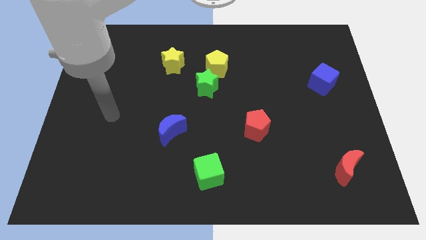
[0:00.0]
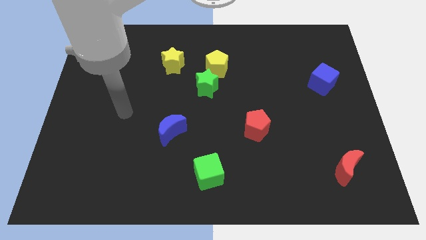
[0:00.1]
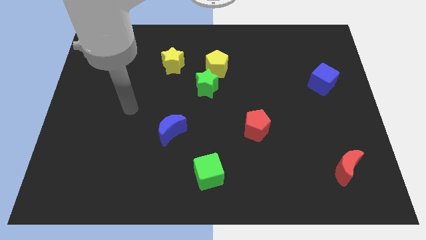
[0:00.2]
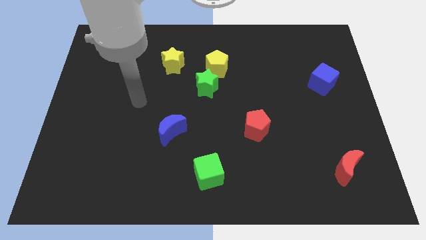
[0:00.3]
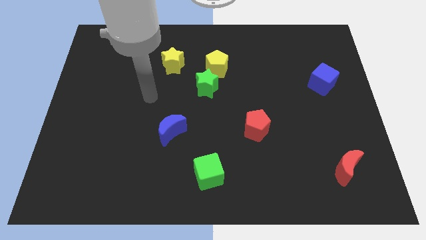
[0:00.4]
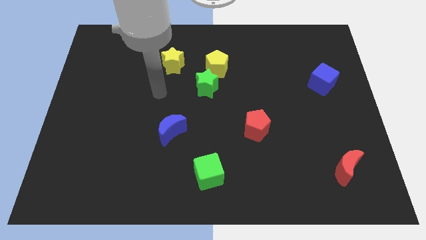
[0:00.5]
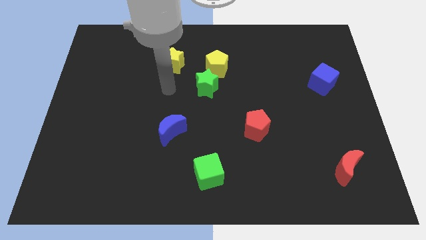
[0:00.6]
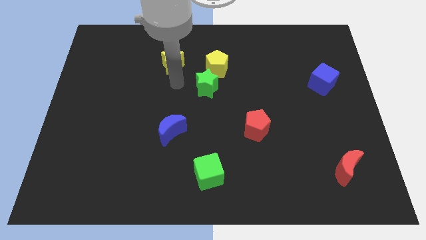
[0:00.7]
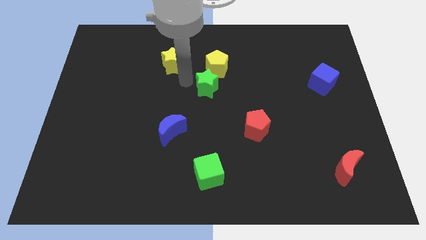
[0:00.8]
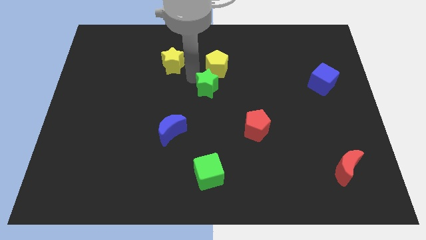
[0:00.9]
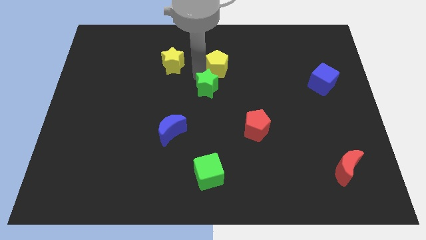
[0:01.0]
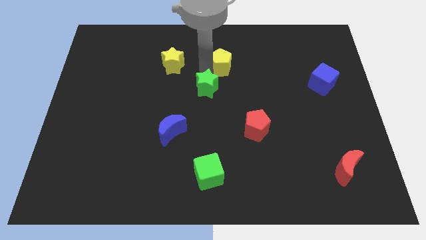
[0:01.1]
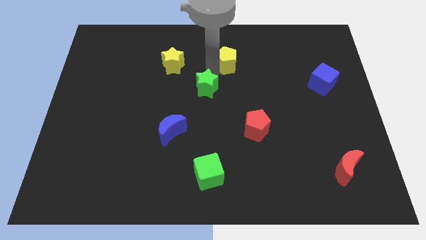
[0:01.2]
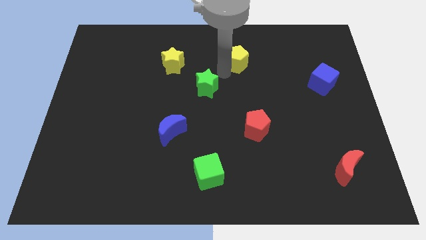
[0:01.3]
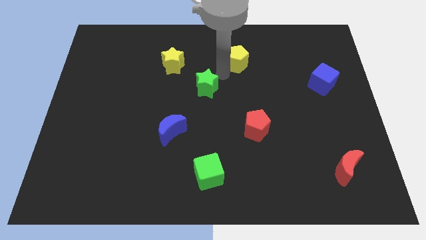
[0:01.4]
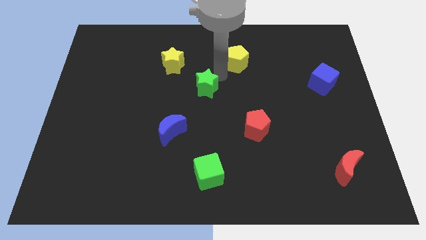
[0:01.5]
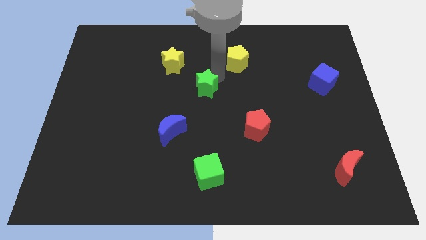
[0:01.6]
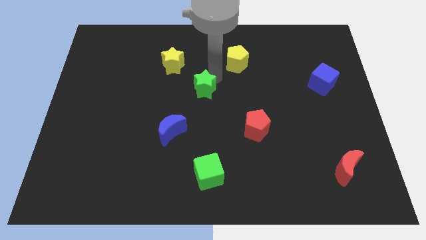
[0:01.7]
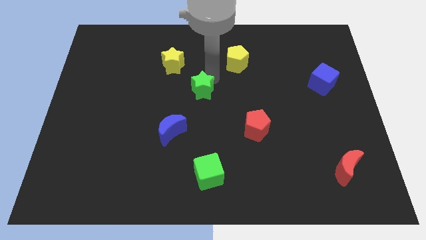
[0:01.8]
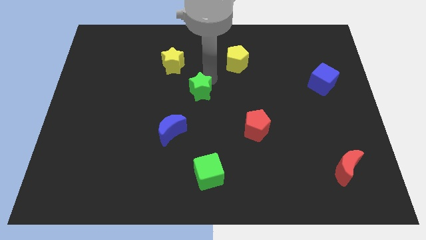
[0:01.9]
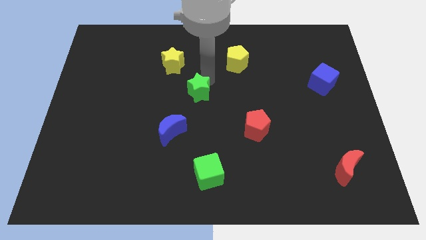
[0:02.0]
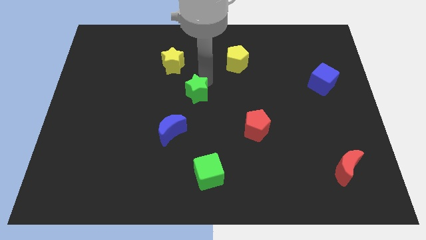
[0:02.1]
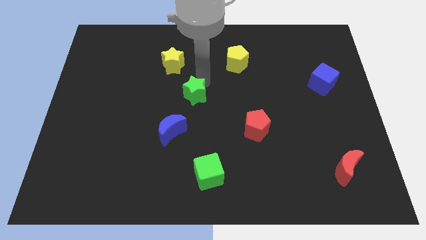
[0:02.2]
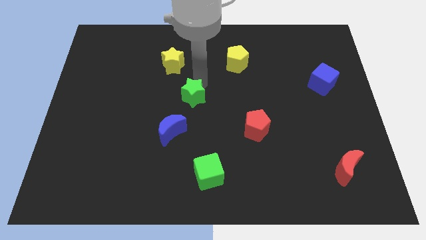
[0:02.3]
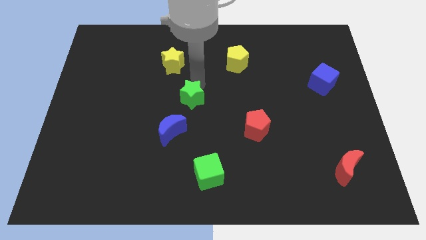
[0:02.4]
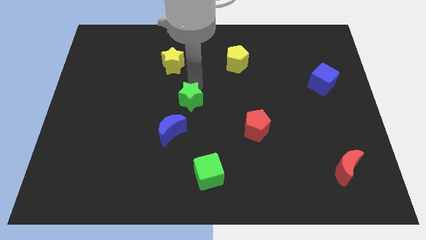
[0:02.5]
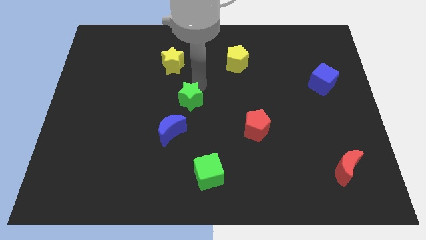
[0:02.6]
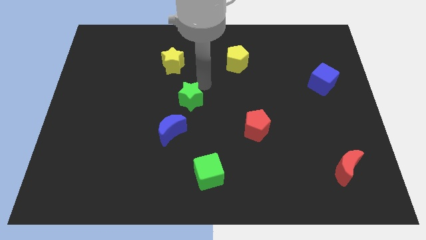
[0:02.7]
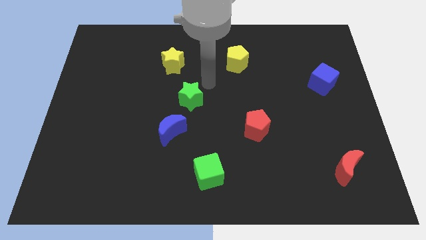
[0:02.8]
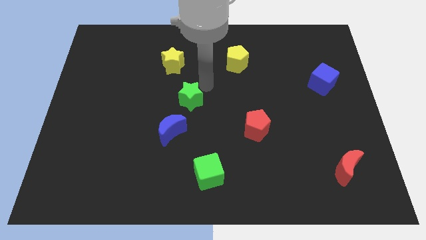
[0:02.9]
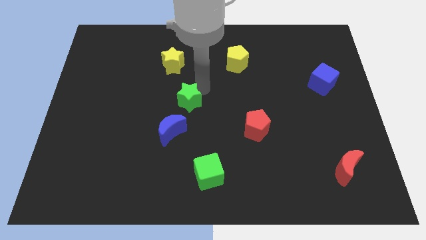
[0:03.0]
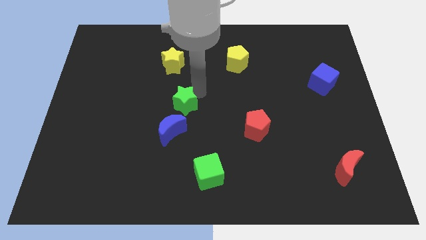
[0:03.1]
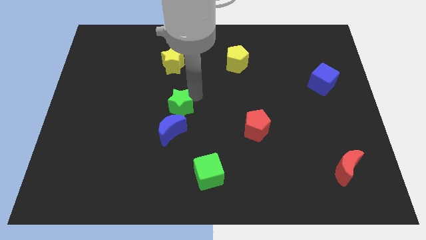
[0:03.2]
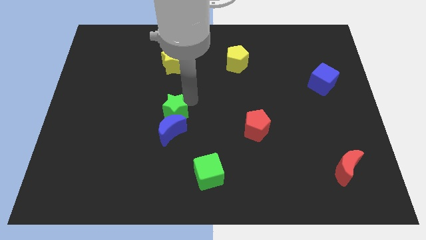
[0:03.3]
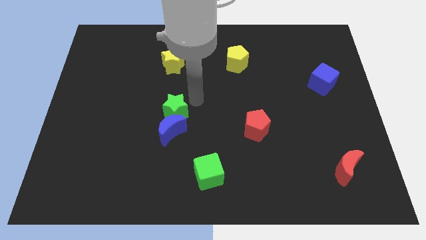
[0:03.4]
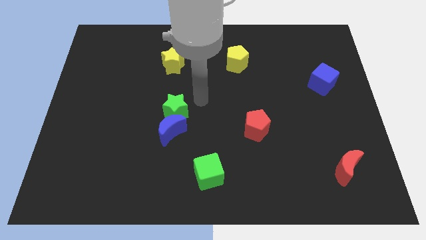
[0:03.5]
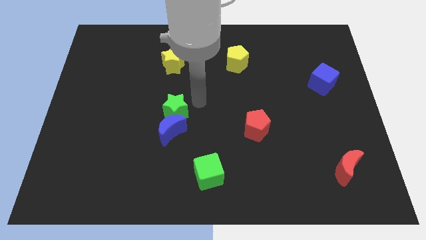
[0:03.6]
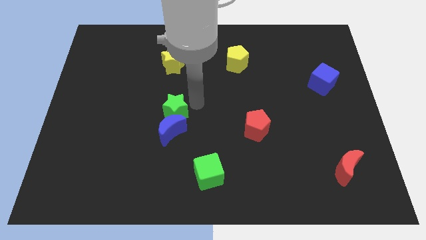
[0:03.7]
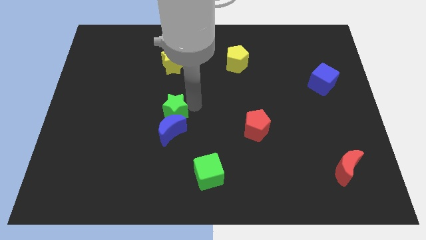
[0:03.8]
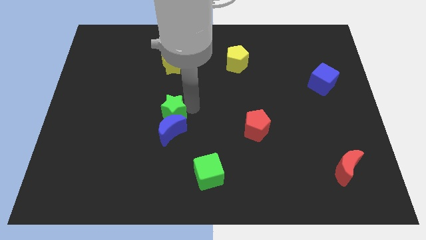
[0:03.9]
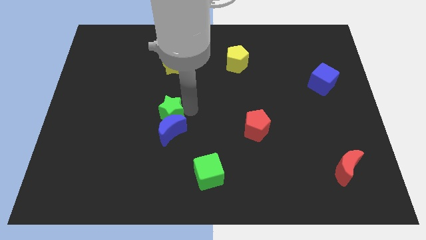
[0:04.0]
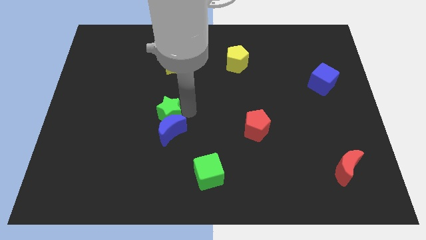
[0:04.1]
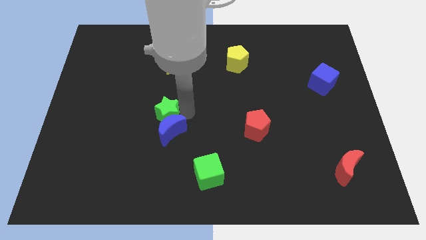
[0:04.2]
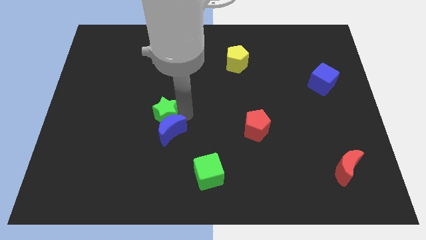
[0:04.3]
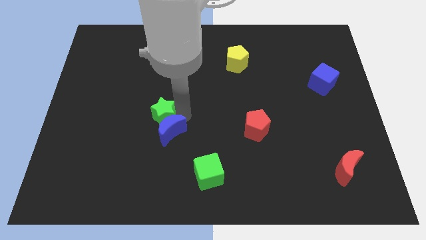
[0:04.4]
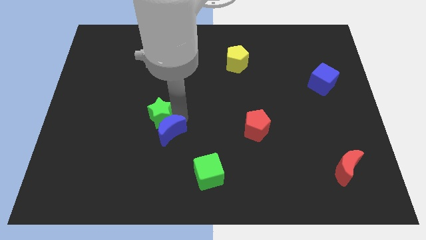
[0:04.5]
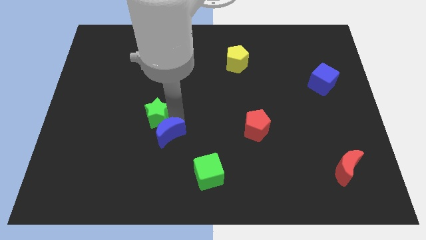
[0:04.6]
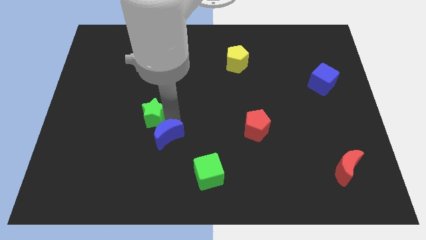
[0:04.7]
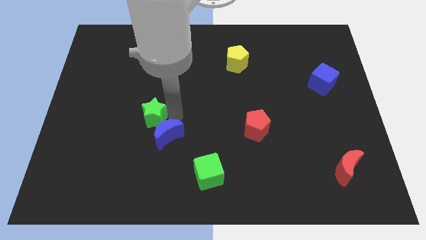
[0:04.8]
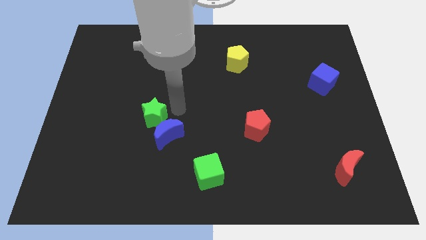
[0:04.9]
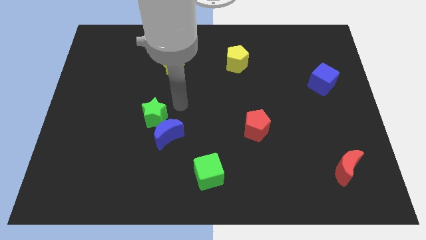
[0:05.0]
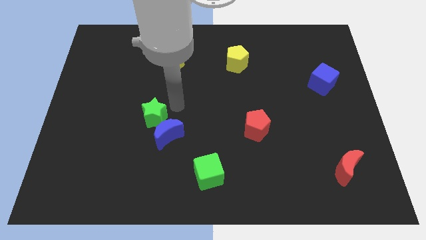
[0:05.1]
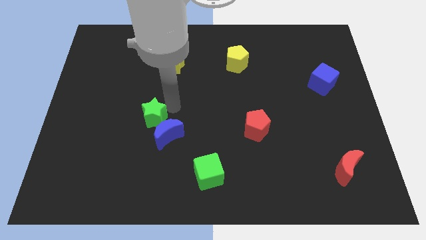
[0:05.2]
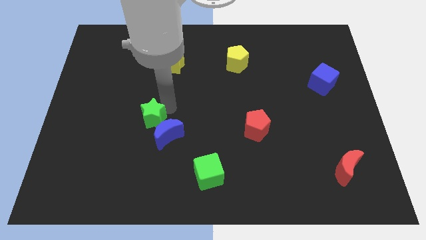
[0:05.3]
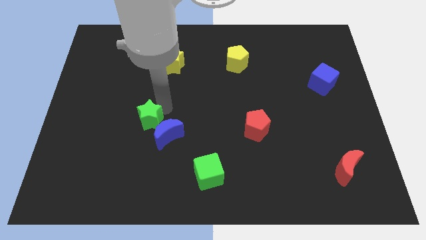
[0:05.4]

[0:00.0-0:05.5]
move the green star just left of the blue moon

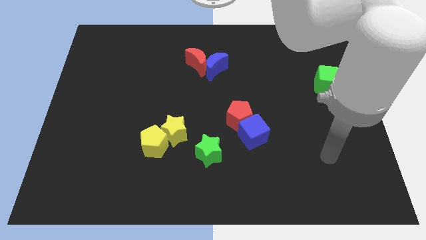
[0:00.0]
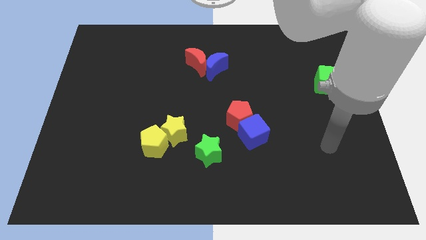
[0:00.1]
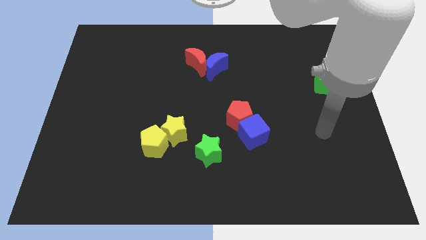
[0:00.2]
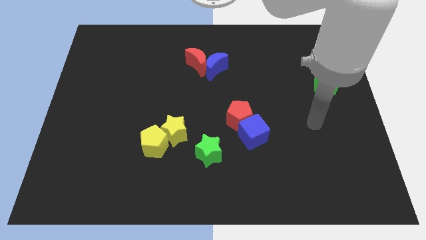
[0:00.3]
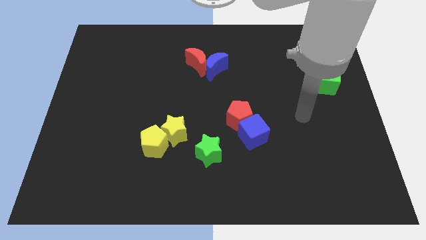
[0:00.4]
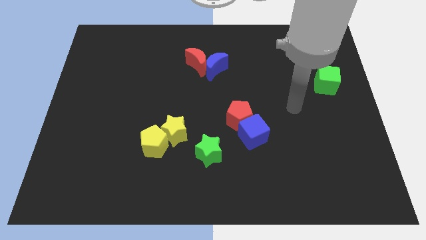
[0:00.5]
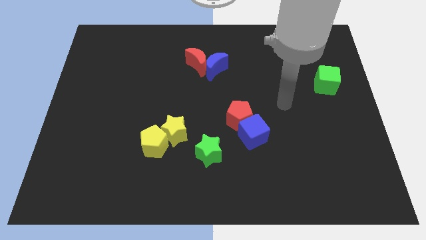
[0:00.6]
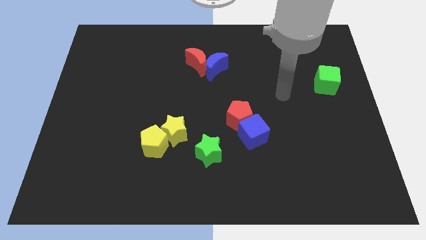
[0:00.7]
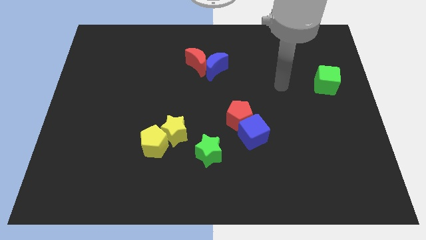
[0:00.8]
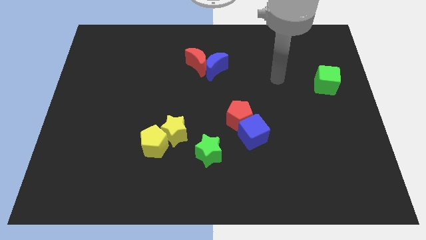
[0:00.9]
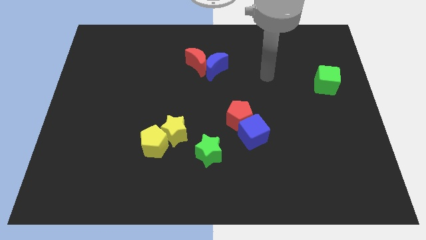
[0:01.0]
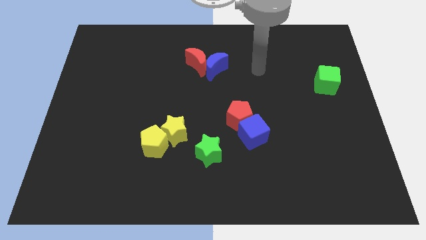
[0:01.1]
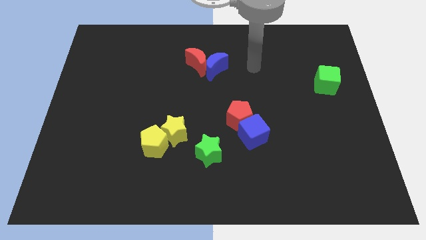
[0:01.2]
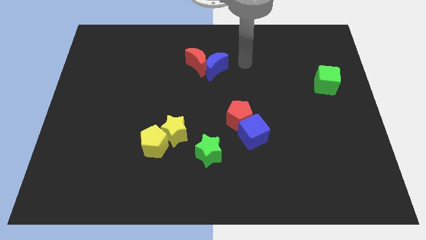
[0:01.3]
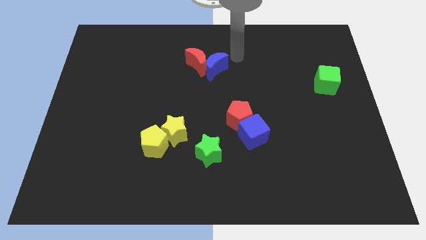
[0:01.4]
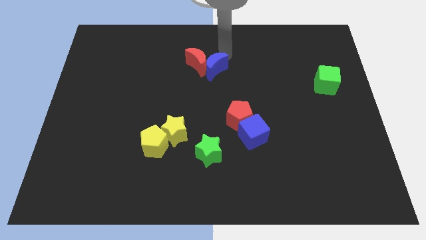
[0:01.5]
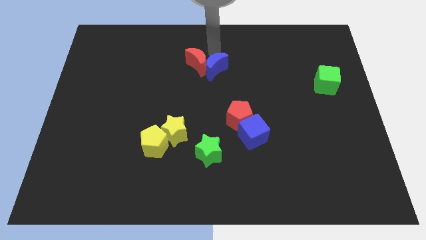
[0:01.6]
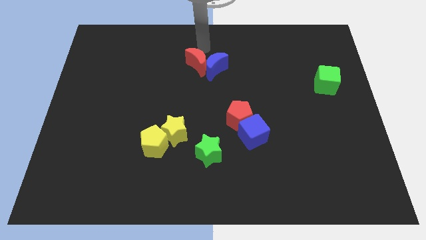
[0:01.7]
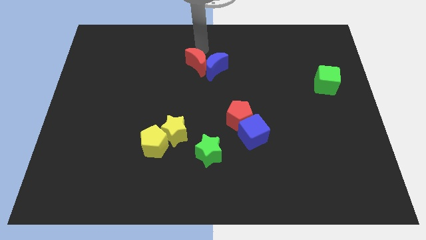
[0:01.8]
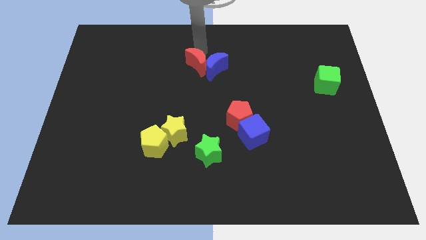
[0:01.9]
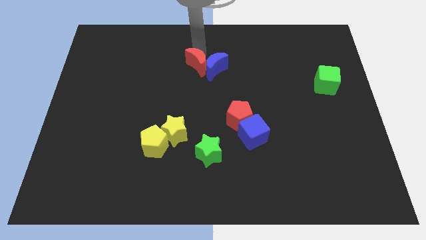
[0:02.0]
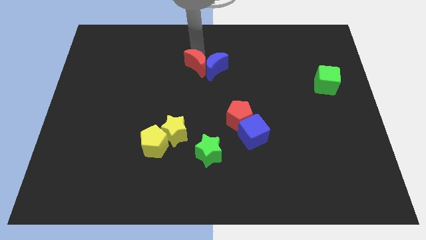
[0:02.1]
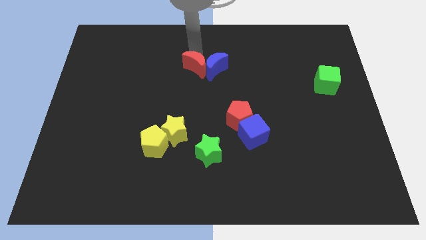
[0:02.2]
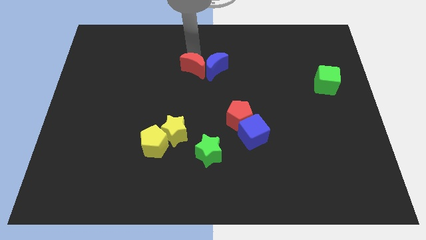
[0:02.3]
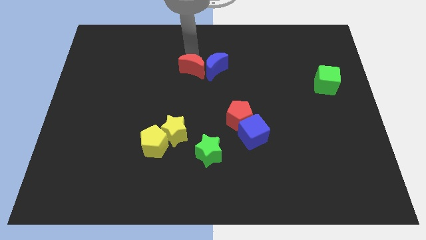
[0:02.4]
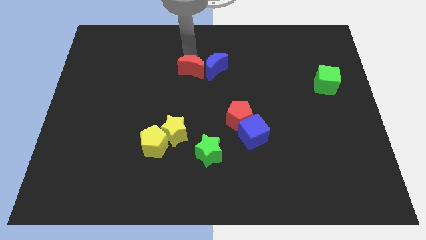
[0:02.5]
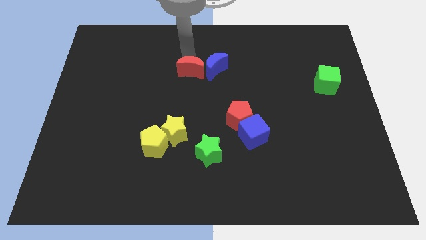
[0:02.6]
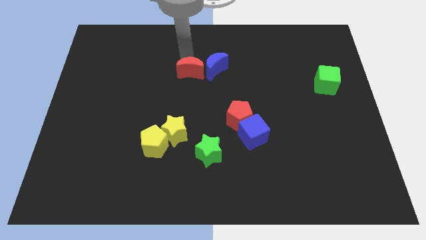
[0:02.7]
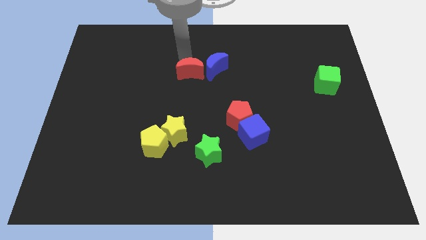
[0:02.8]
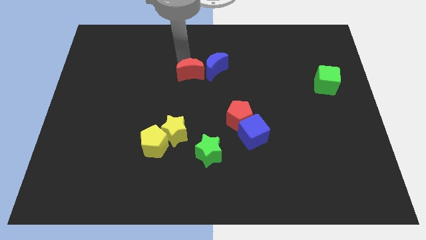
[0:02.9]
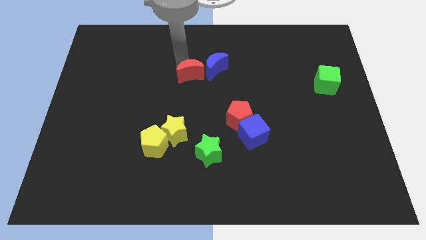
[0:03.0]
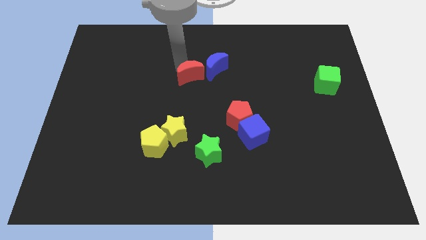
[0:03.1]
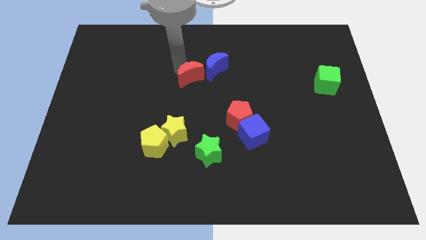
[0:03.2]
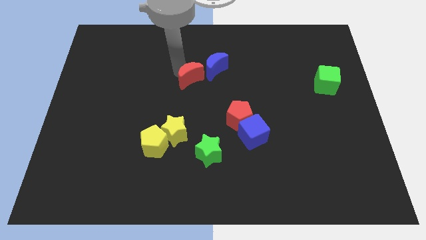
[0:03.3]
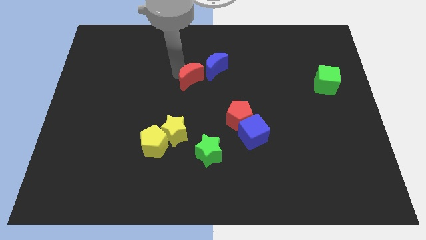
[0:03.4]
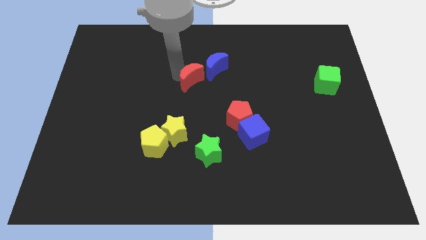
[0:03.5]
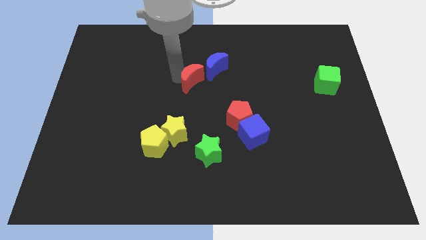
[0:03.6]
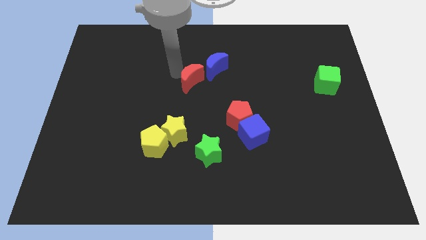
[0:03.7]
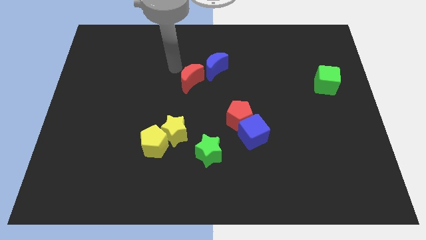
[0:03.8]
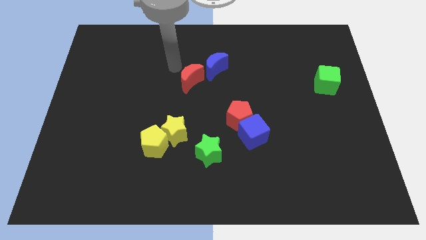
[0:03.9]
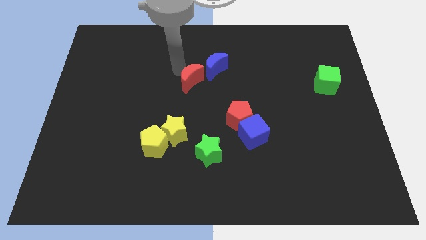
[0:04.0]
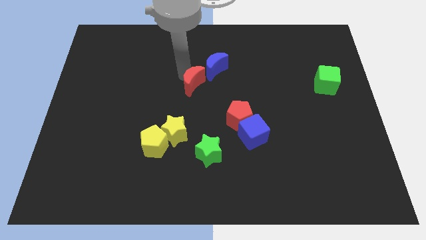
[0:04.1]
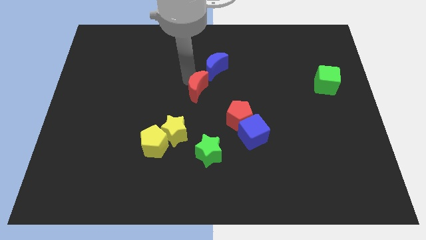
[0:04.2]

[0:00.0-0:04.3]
slide the red moon to the bottom of the blue moon
